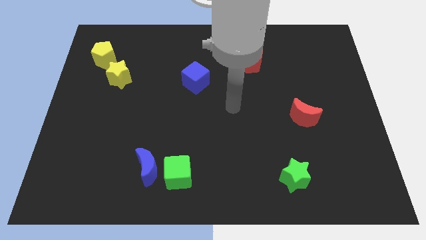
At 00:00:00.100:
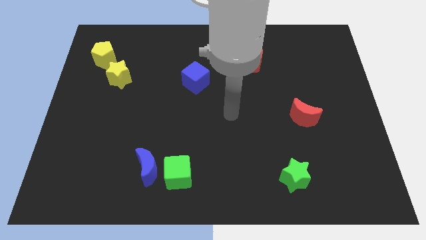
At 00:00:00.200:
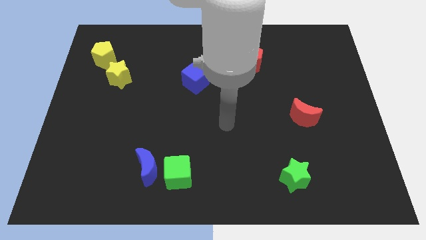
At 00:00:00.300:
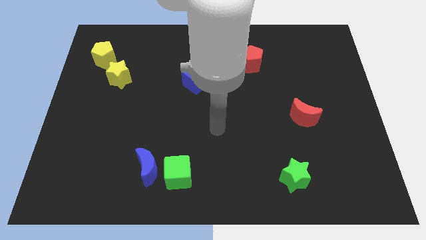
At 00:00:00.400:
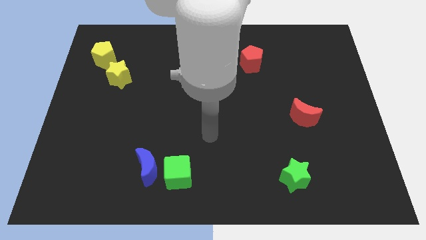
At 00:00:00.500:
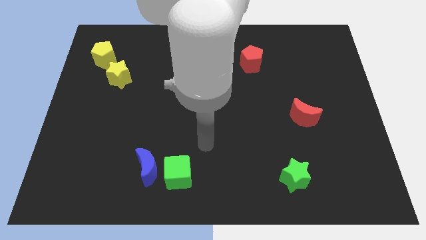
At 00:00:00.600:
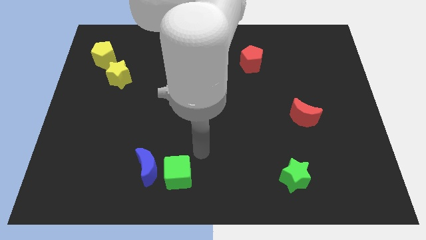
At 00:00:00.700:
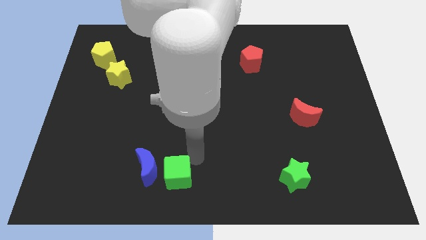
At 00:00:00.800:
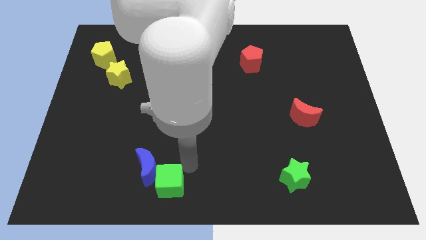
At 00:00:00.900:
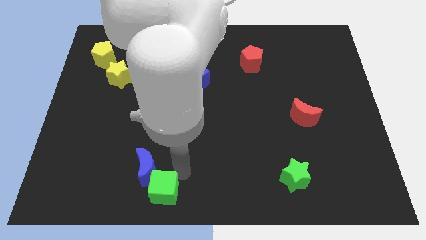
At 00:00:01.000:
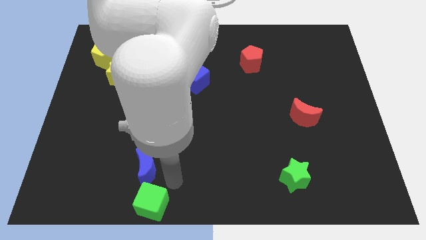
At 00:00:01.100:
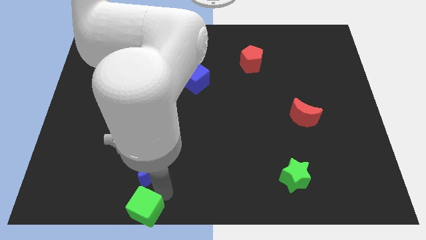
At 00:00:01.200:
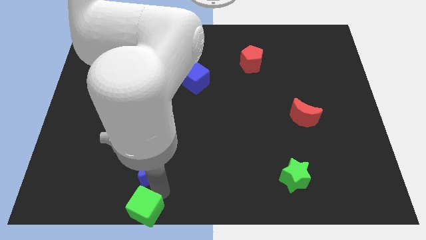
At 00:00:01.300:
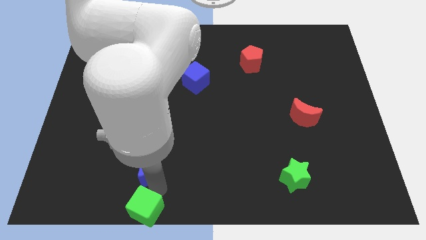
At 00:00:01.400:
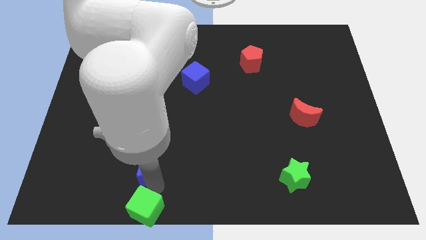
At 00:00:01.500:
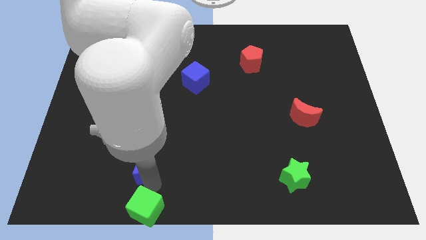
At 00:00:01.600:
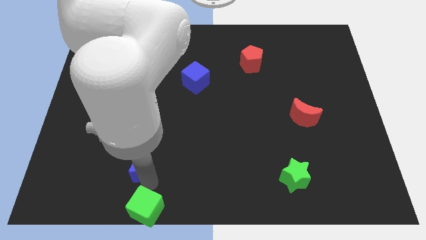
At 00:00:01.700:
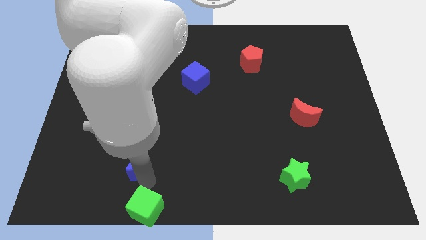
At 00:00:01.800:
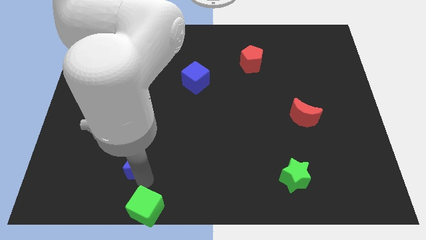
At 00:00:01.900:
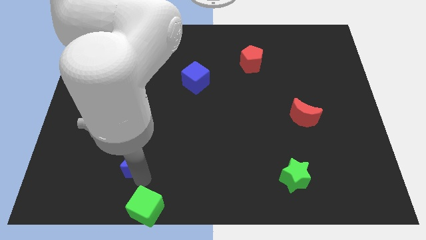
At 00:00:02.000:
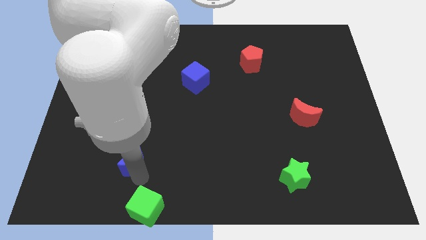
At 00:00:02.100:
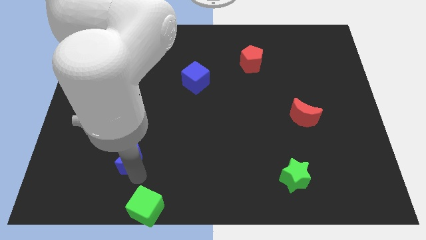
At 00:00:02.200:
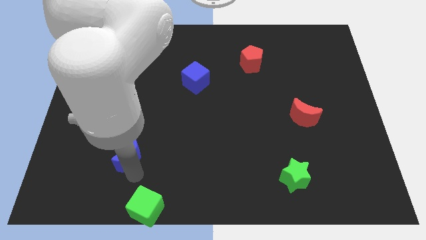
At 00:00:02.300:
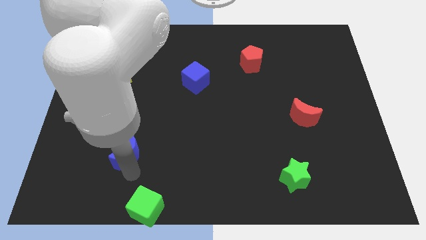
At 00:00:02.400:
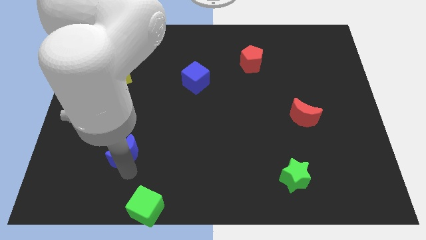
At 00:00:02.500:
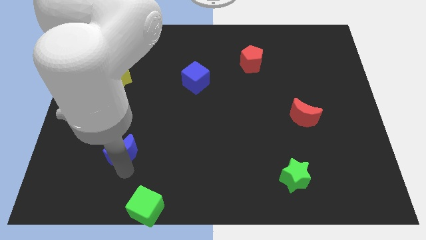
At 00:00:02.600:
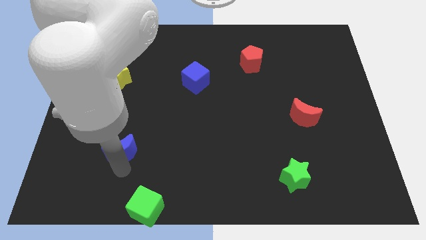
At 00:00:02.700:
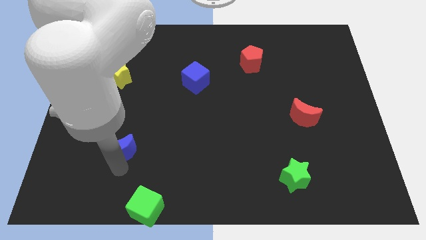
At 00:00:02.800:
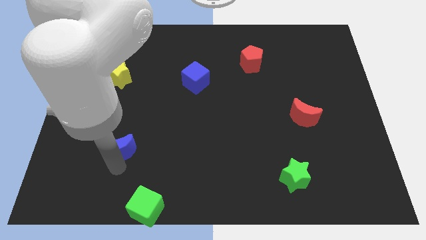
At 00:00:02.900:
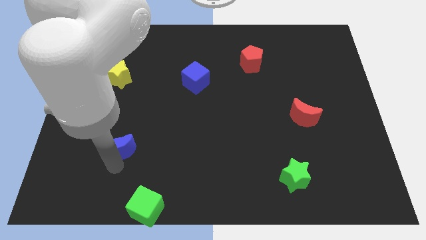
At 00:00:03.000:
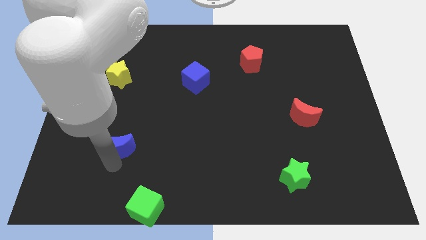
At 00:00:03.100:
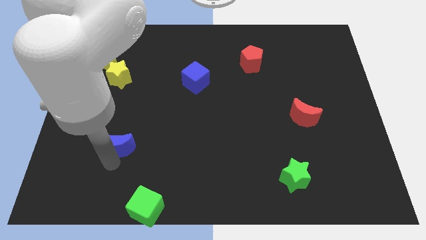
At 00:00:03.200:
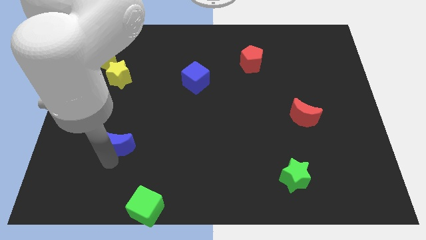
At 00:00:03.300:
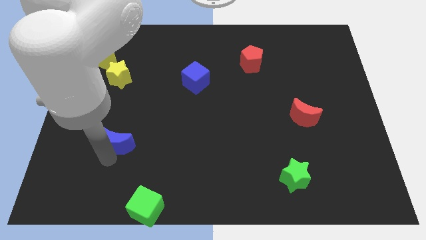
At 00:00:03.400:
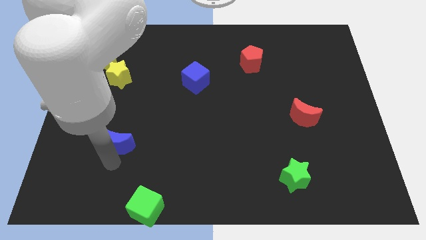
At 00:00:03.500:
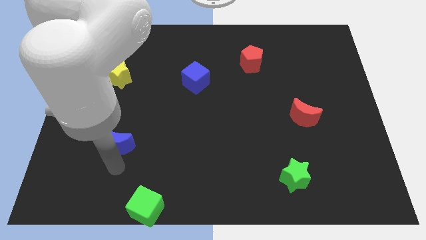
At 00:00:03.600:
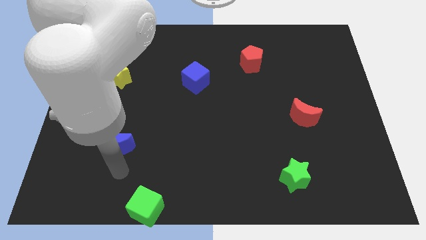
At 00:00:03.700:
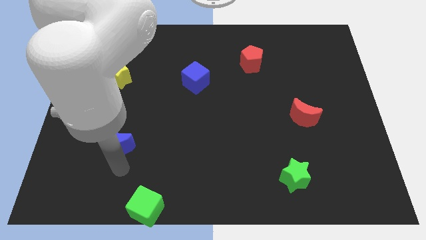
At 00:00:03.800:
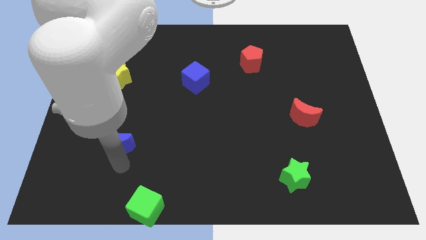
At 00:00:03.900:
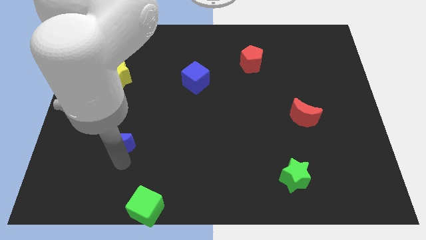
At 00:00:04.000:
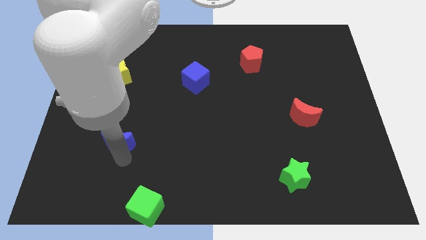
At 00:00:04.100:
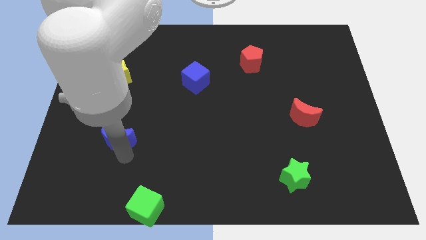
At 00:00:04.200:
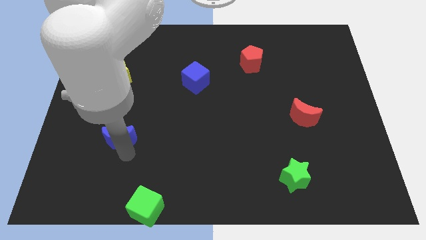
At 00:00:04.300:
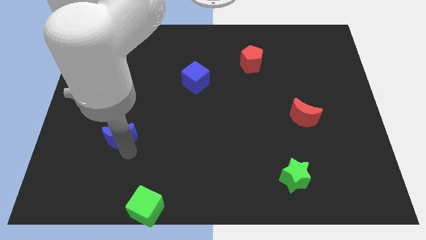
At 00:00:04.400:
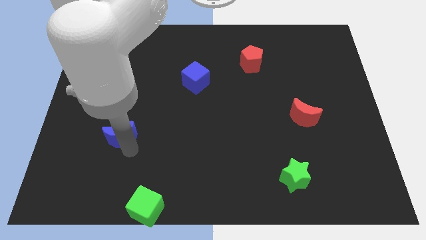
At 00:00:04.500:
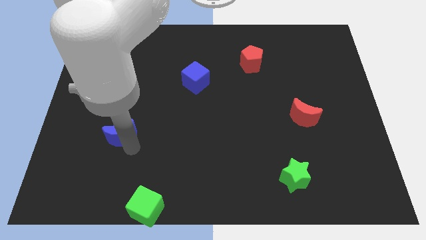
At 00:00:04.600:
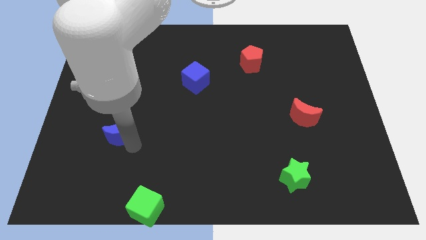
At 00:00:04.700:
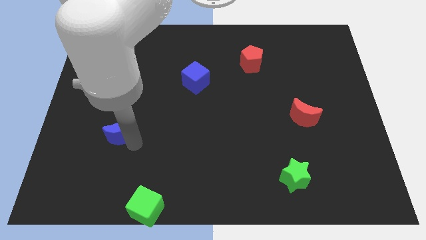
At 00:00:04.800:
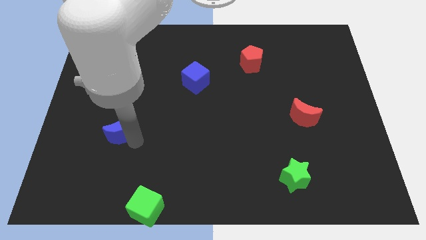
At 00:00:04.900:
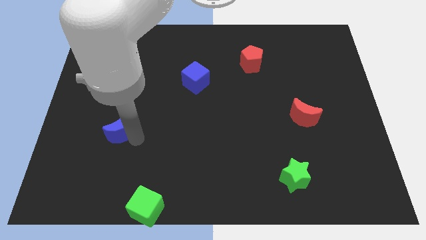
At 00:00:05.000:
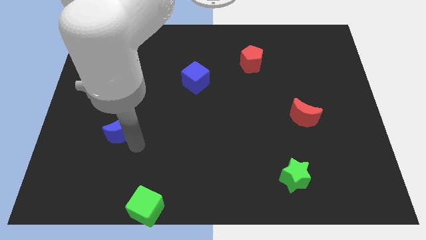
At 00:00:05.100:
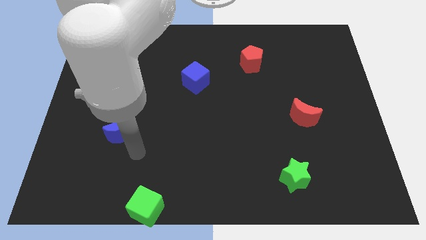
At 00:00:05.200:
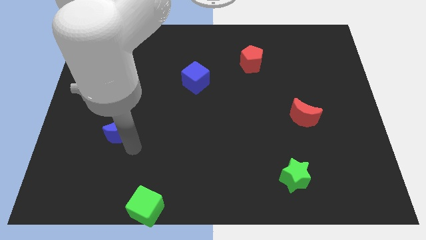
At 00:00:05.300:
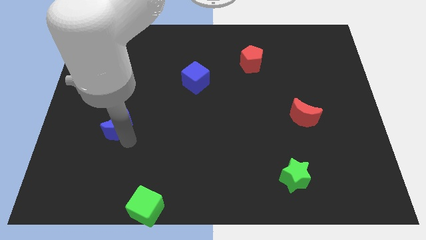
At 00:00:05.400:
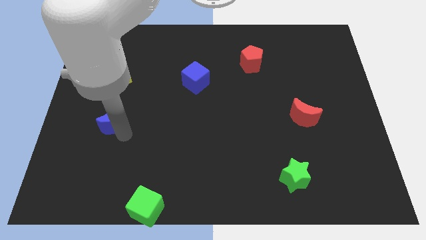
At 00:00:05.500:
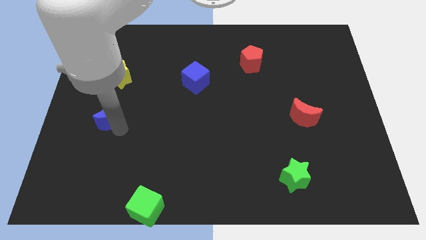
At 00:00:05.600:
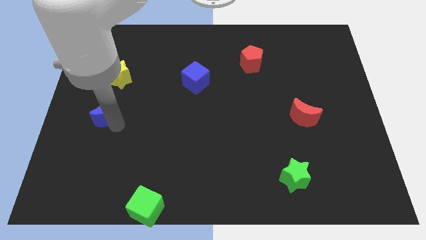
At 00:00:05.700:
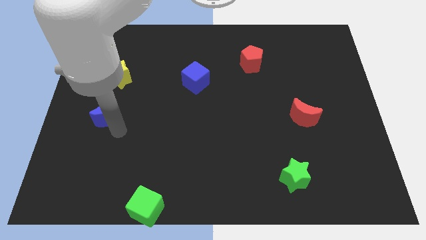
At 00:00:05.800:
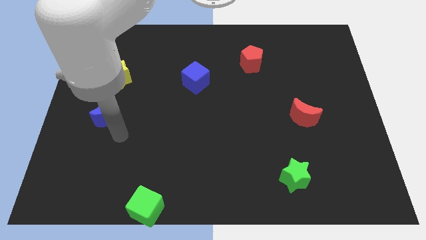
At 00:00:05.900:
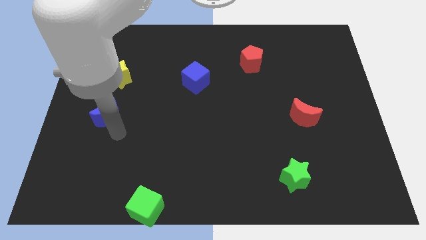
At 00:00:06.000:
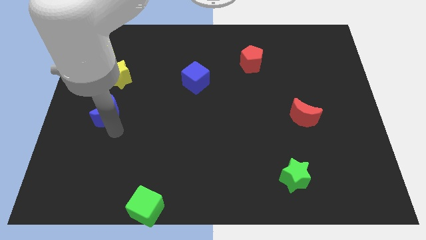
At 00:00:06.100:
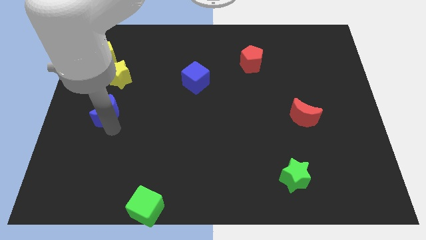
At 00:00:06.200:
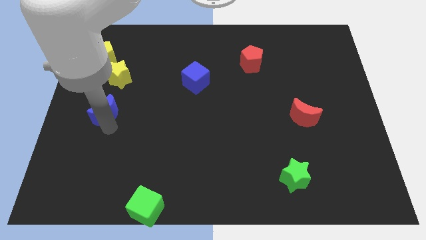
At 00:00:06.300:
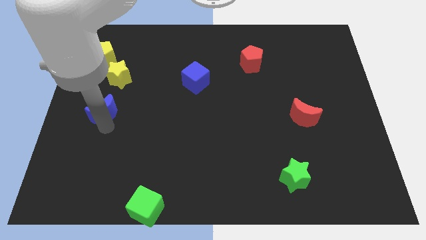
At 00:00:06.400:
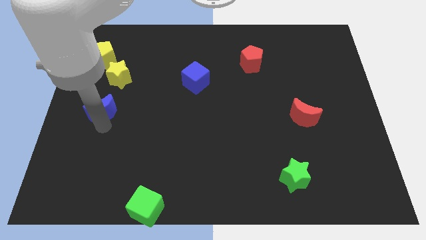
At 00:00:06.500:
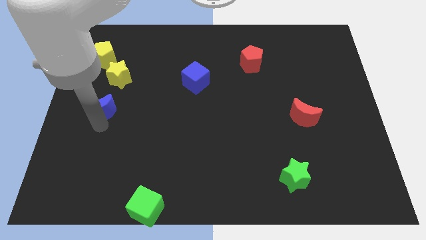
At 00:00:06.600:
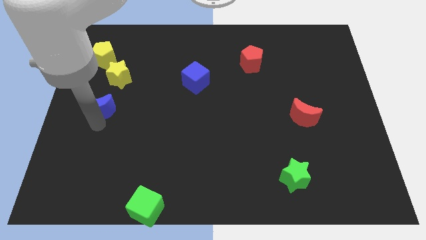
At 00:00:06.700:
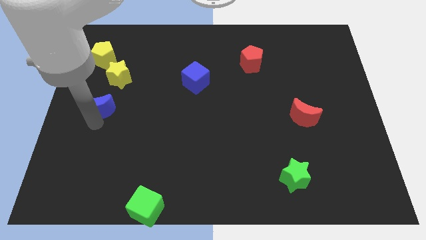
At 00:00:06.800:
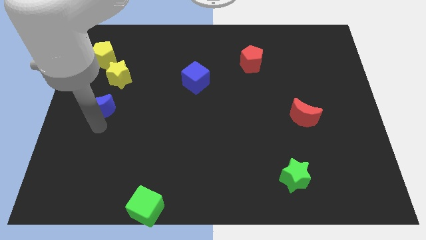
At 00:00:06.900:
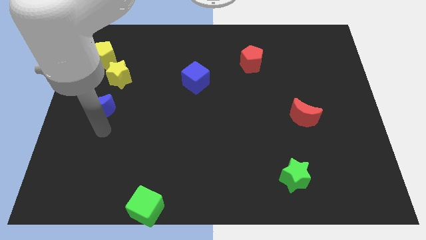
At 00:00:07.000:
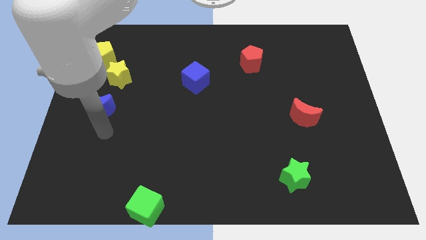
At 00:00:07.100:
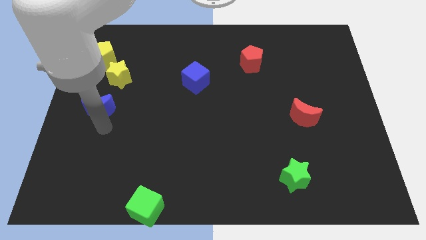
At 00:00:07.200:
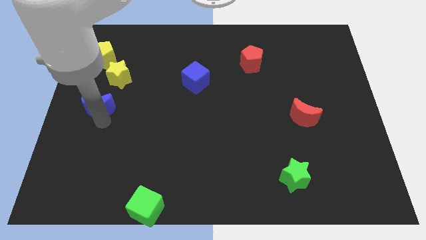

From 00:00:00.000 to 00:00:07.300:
slide the blue moon to the bottom left side of the yellow star
